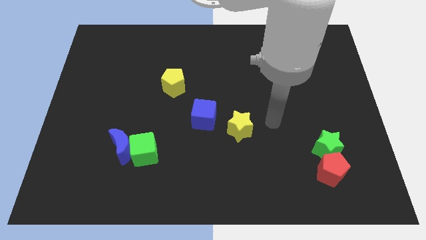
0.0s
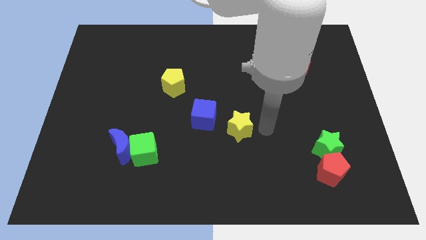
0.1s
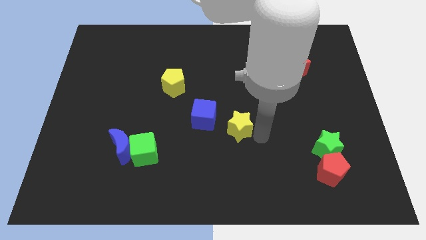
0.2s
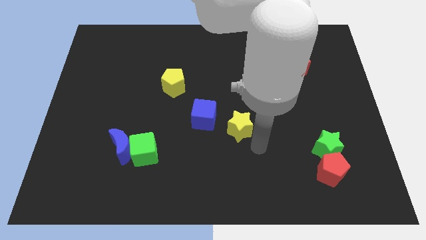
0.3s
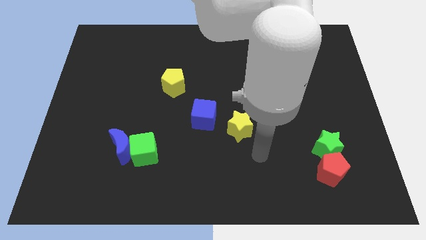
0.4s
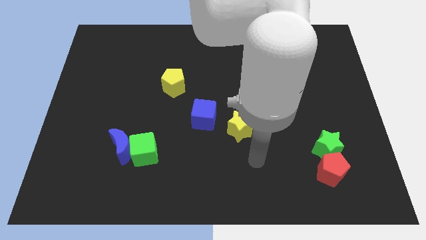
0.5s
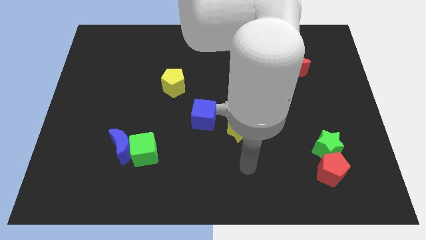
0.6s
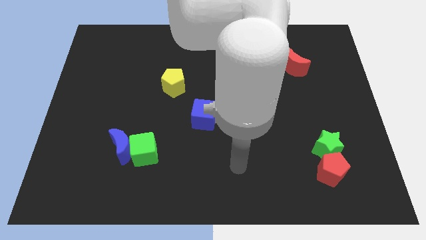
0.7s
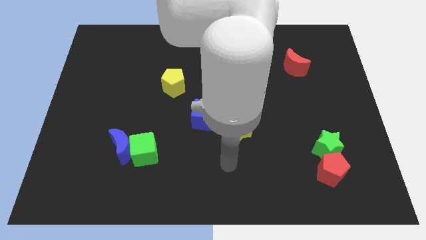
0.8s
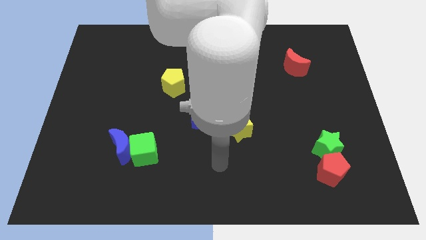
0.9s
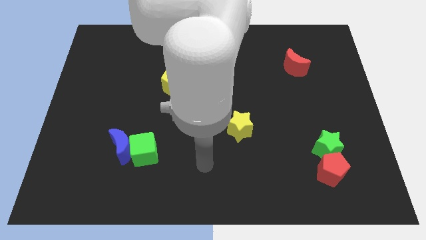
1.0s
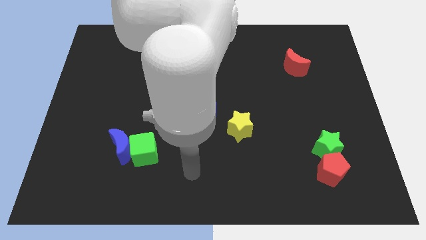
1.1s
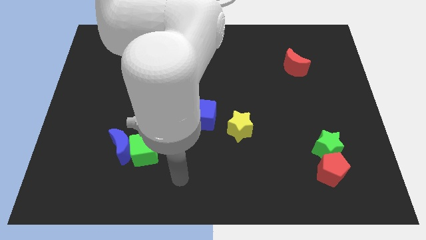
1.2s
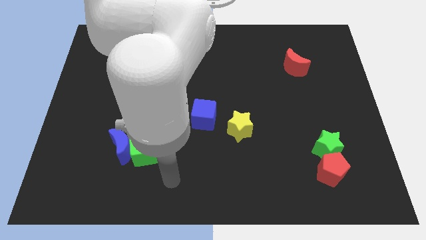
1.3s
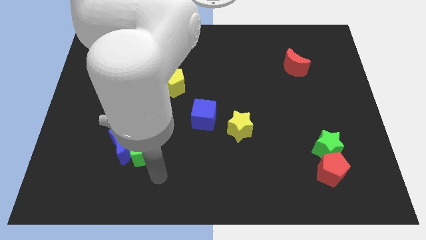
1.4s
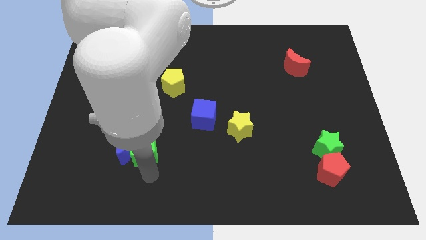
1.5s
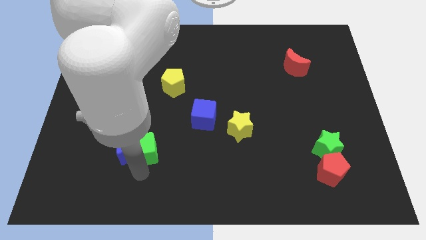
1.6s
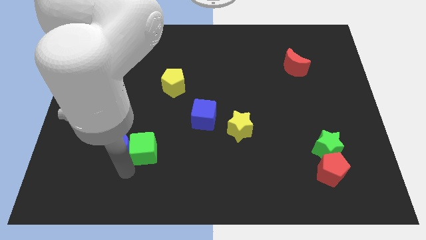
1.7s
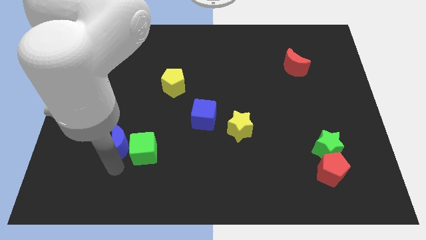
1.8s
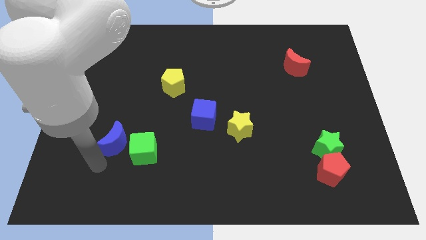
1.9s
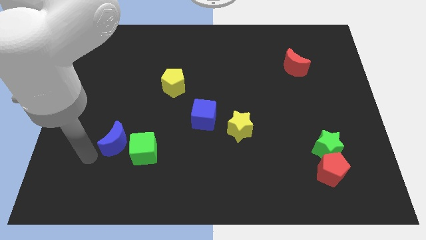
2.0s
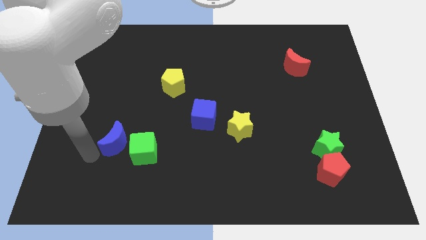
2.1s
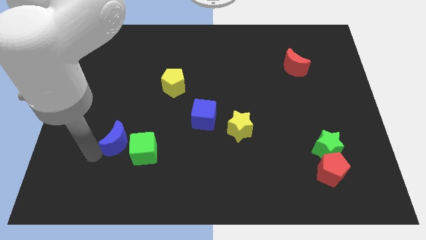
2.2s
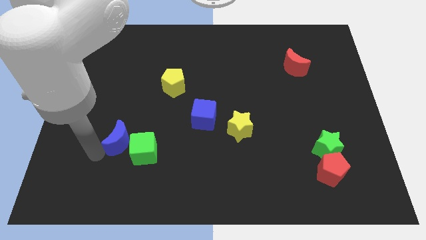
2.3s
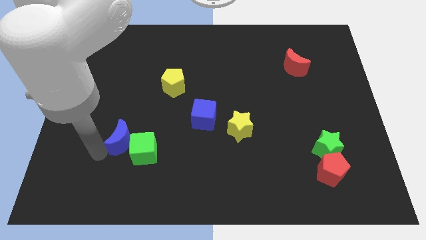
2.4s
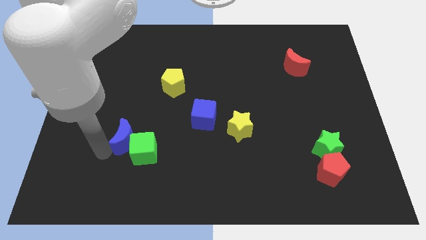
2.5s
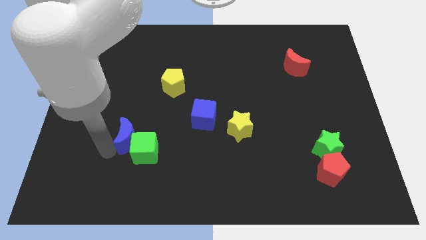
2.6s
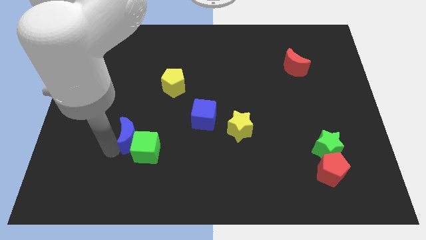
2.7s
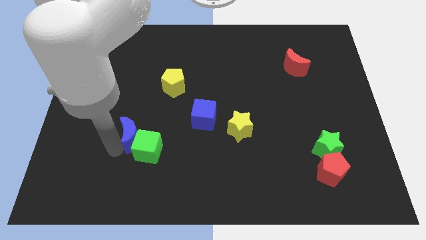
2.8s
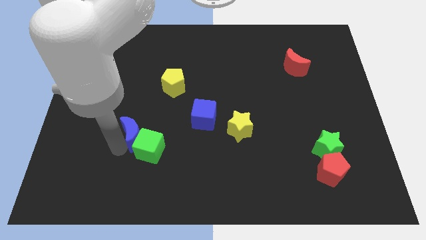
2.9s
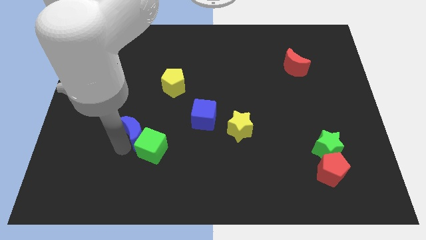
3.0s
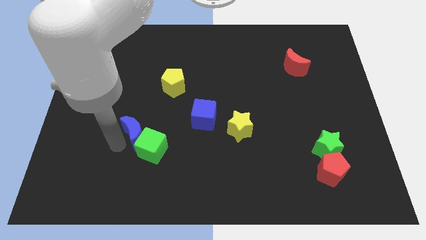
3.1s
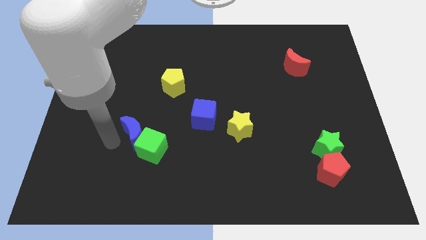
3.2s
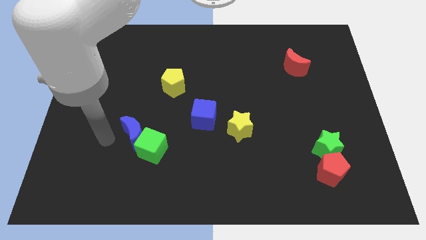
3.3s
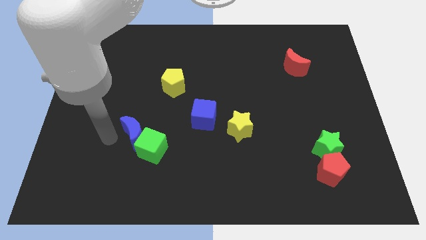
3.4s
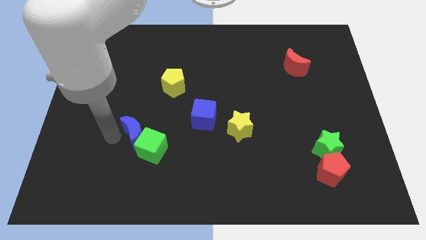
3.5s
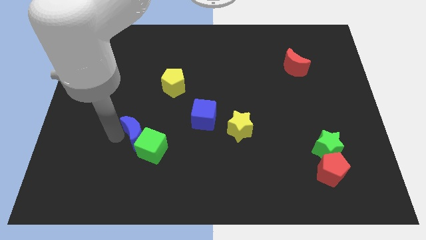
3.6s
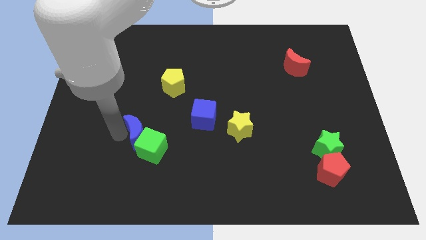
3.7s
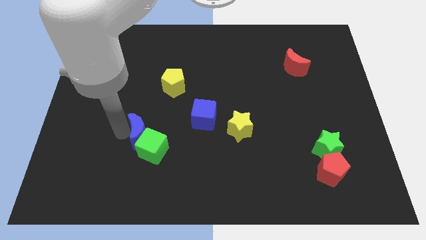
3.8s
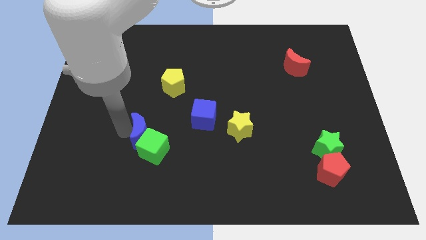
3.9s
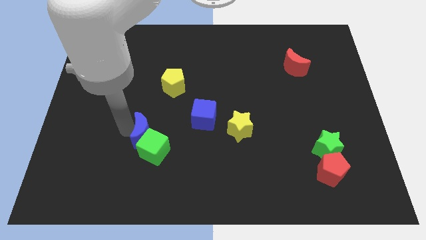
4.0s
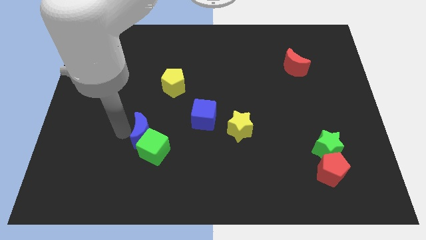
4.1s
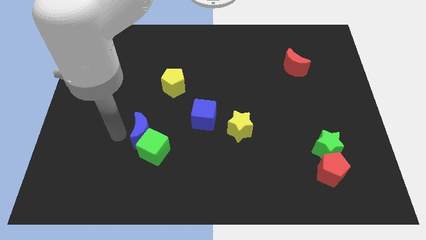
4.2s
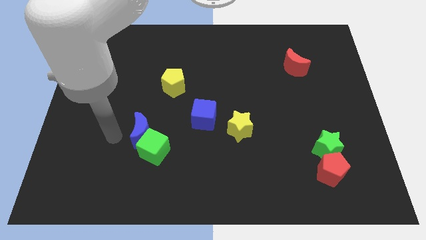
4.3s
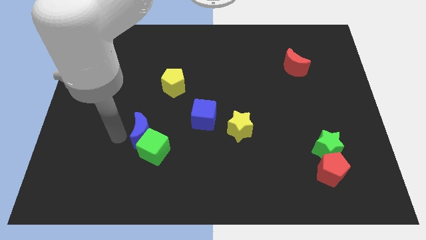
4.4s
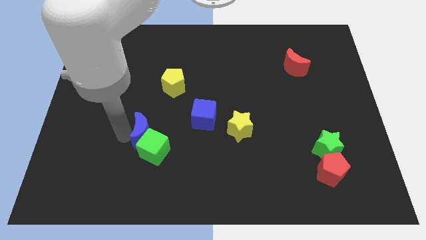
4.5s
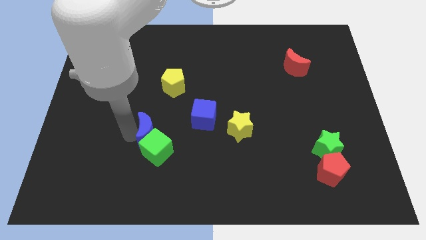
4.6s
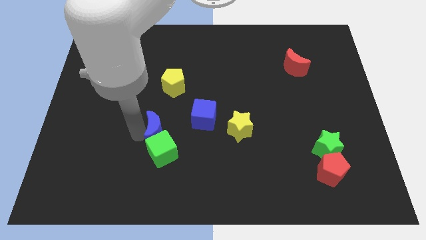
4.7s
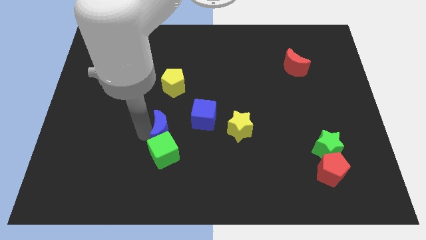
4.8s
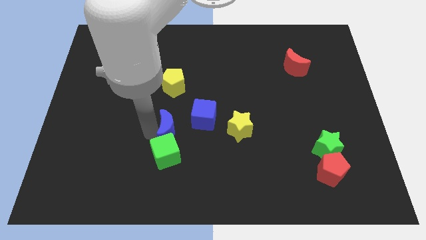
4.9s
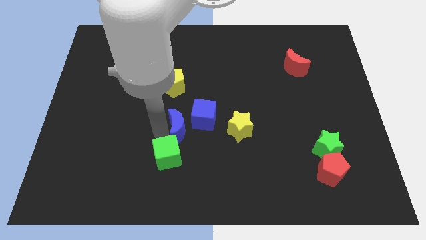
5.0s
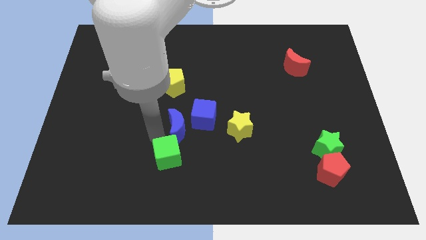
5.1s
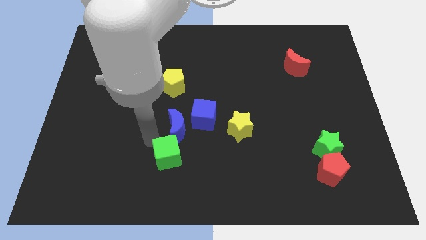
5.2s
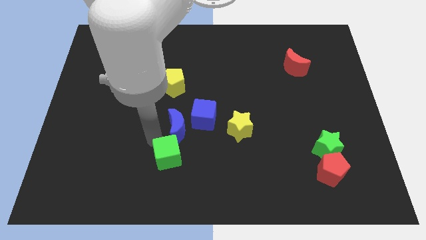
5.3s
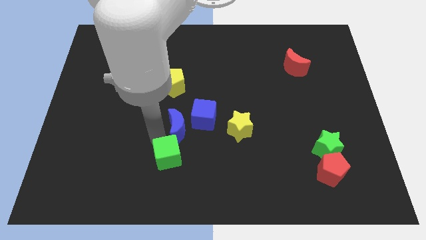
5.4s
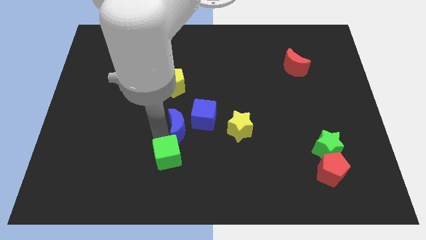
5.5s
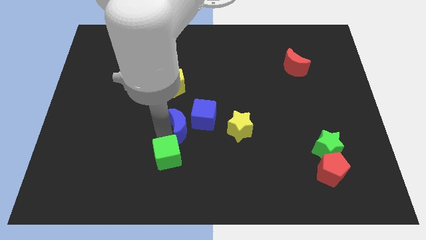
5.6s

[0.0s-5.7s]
push the blue moon close to the blue cube
